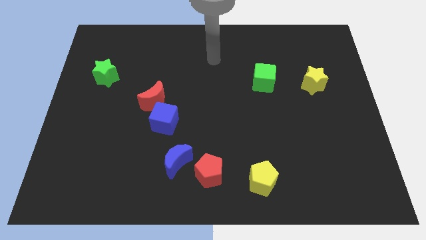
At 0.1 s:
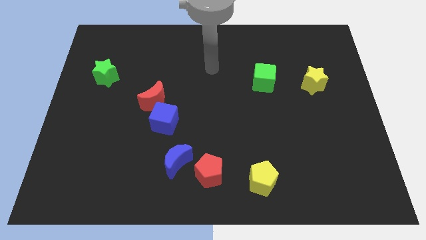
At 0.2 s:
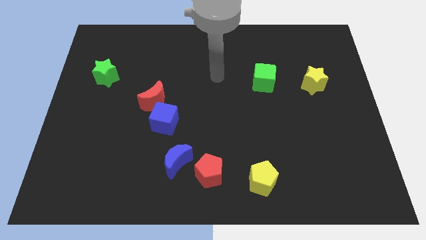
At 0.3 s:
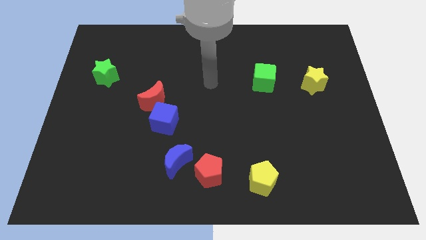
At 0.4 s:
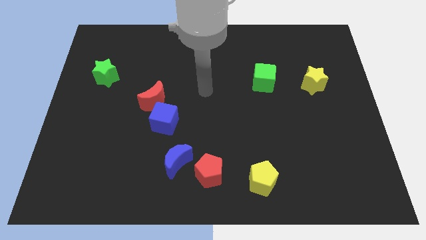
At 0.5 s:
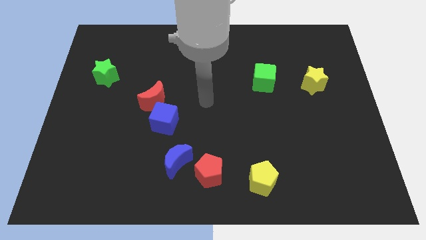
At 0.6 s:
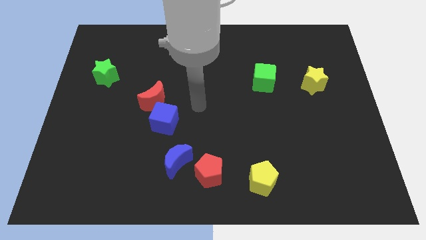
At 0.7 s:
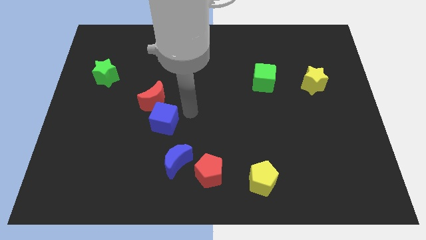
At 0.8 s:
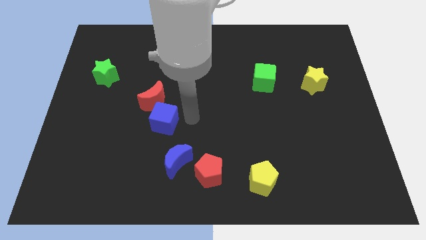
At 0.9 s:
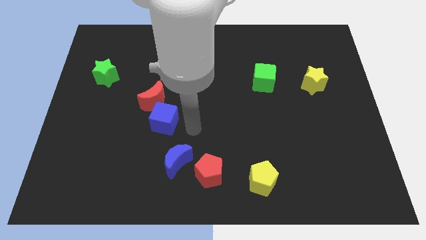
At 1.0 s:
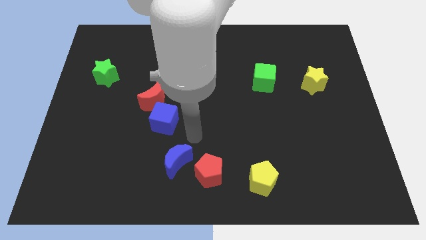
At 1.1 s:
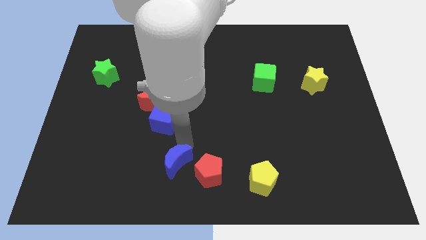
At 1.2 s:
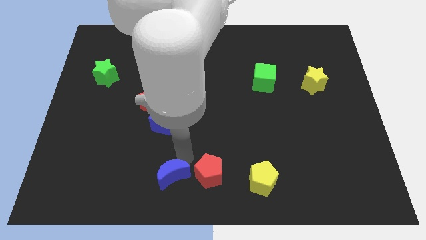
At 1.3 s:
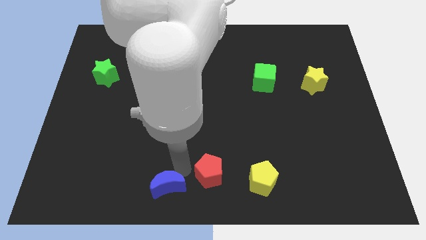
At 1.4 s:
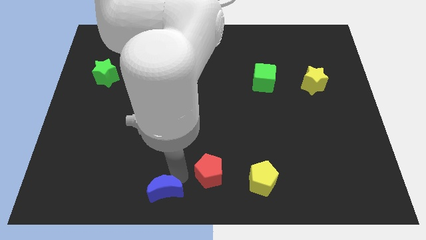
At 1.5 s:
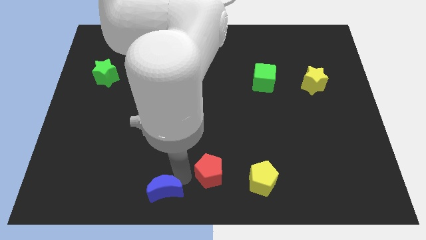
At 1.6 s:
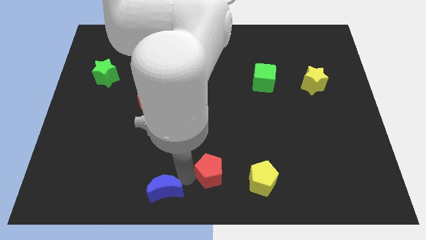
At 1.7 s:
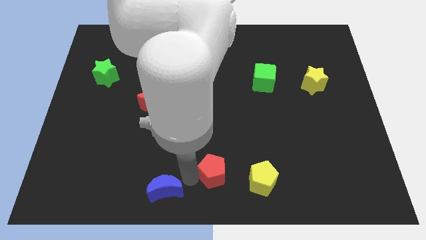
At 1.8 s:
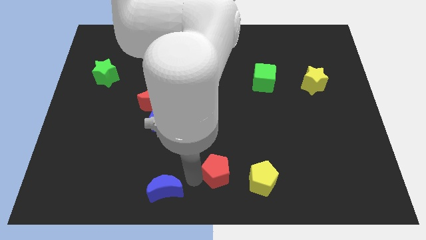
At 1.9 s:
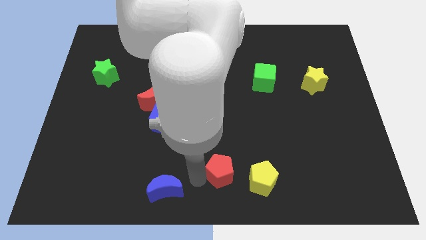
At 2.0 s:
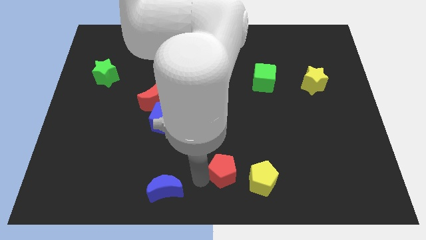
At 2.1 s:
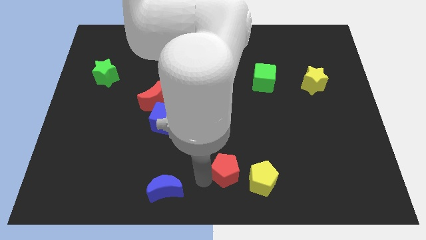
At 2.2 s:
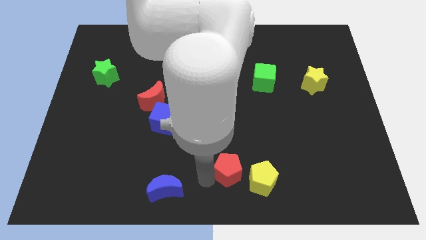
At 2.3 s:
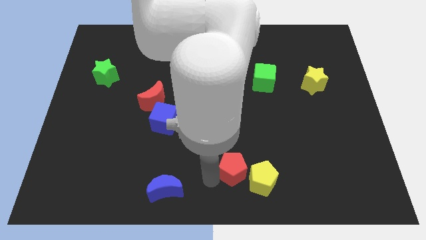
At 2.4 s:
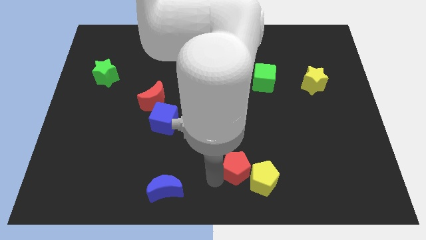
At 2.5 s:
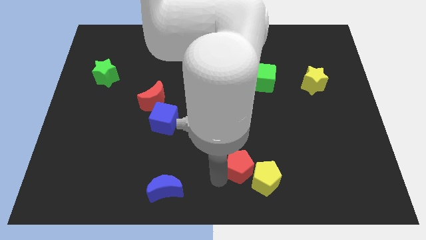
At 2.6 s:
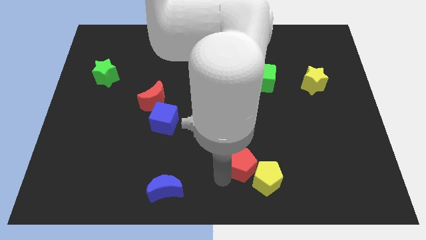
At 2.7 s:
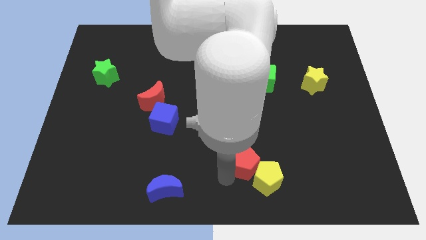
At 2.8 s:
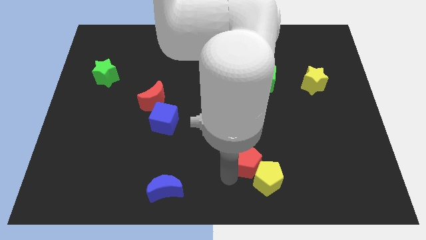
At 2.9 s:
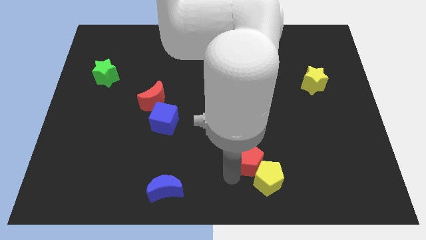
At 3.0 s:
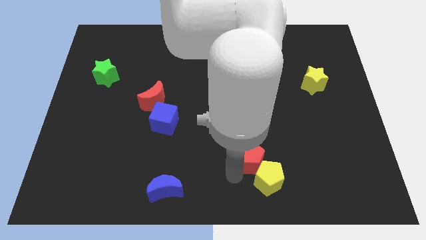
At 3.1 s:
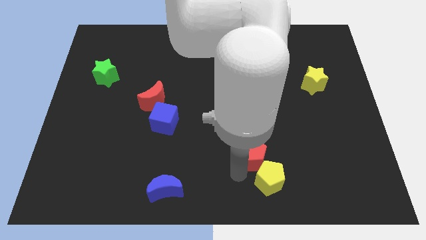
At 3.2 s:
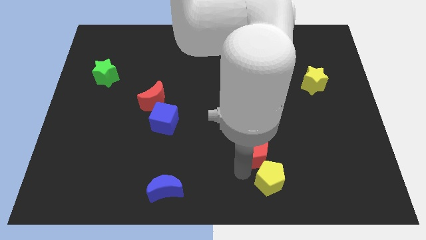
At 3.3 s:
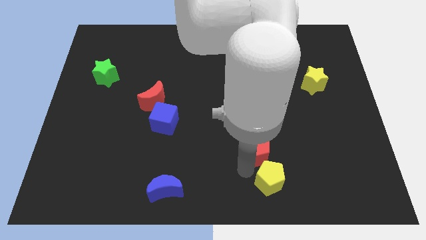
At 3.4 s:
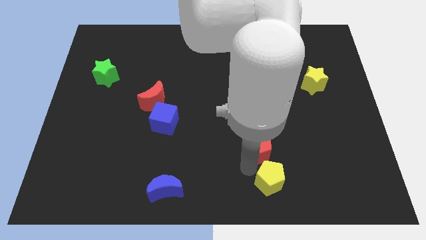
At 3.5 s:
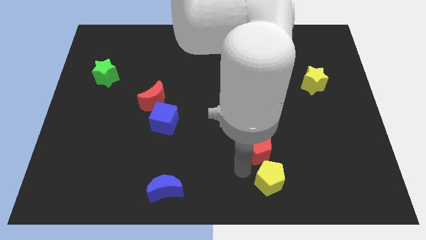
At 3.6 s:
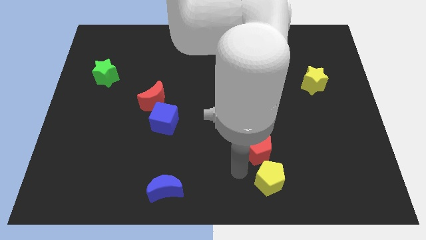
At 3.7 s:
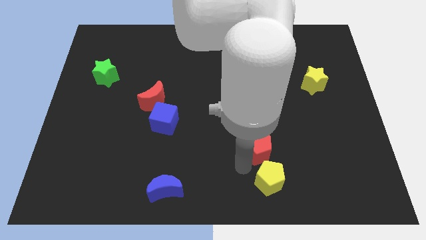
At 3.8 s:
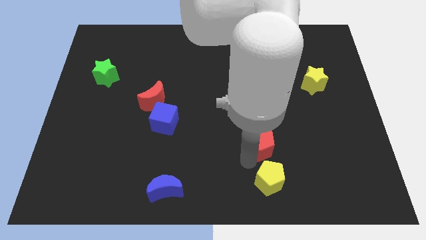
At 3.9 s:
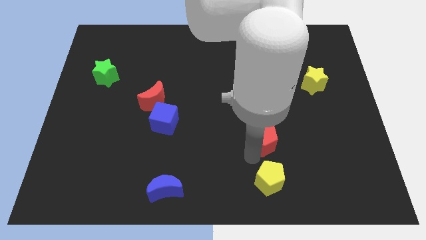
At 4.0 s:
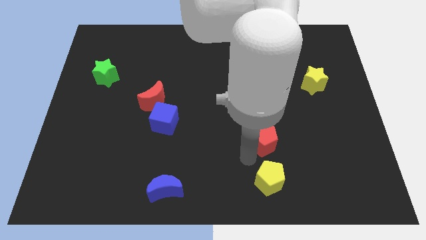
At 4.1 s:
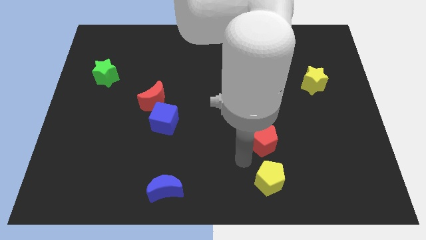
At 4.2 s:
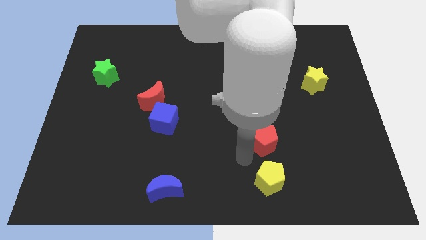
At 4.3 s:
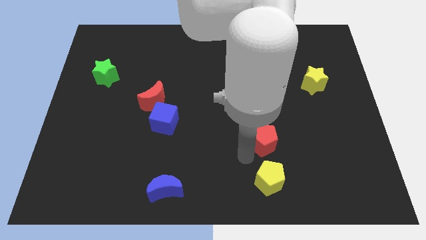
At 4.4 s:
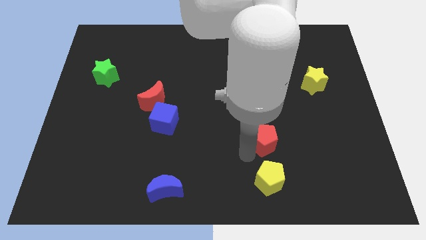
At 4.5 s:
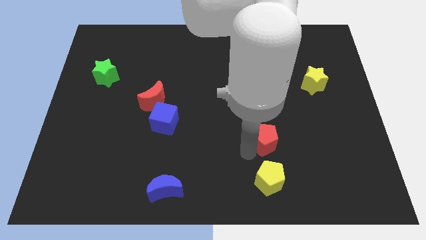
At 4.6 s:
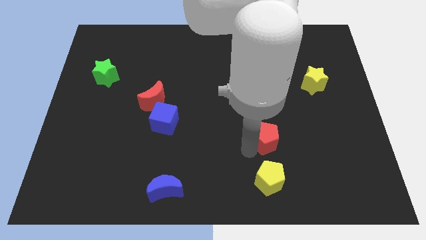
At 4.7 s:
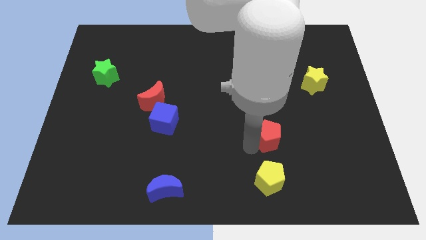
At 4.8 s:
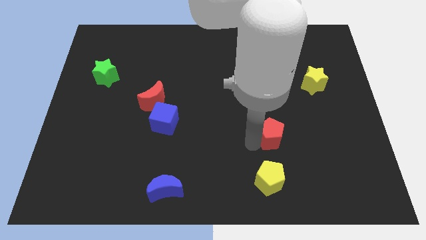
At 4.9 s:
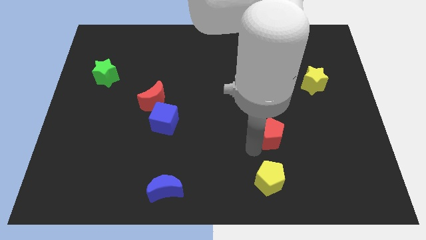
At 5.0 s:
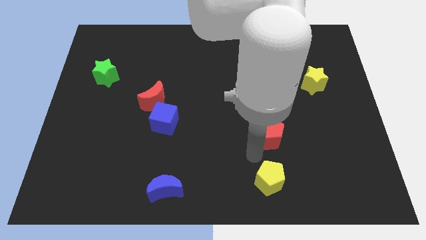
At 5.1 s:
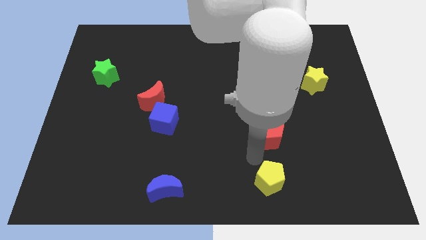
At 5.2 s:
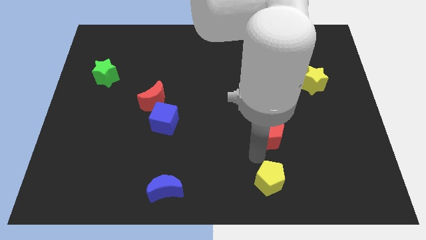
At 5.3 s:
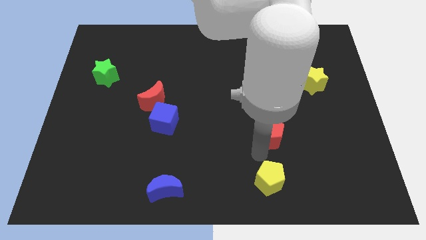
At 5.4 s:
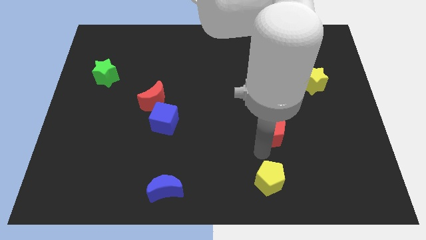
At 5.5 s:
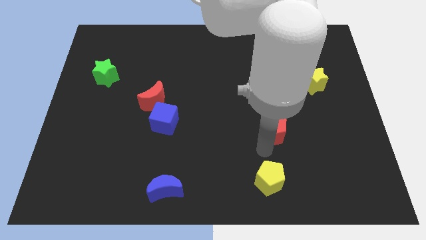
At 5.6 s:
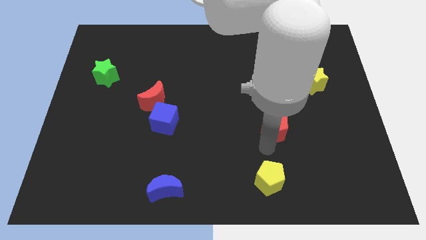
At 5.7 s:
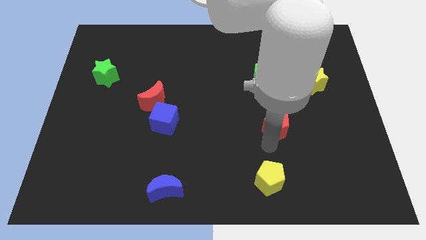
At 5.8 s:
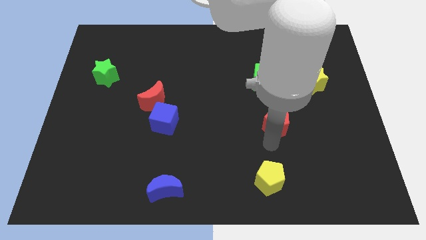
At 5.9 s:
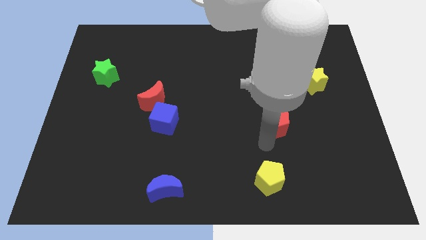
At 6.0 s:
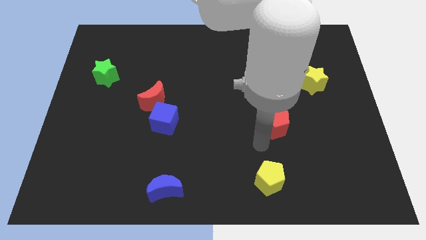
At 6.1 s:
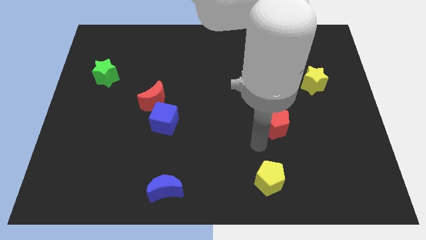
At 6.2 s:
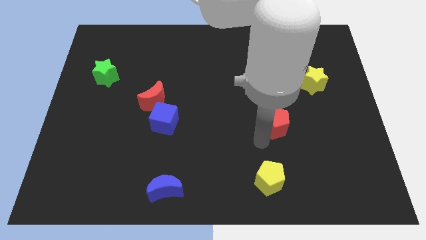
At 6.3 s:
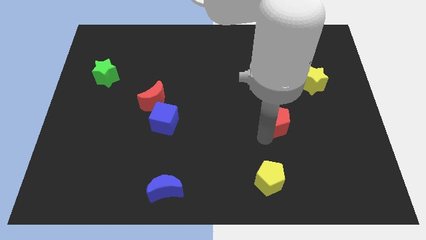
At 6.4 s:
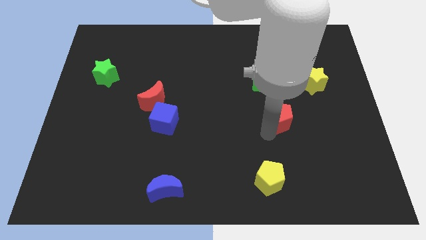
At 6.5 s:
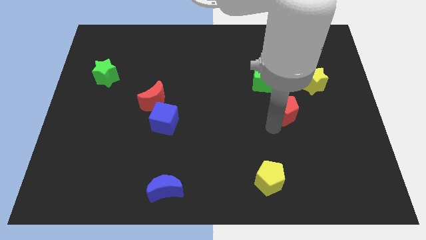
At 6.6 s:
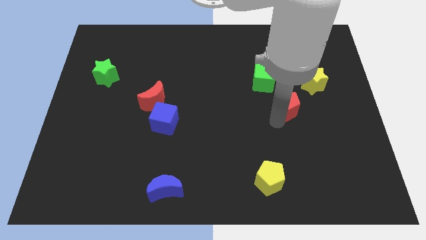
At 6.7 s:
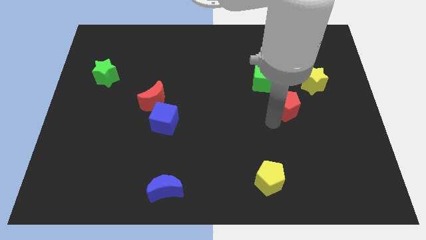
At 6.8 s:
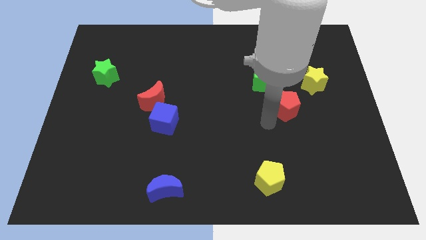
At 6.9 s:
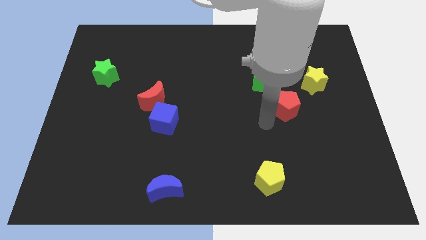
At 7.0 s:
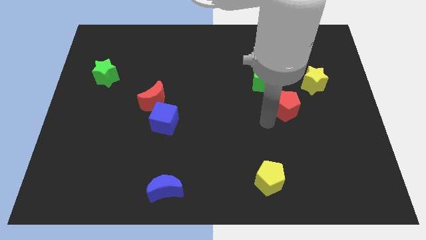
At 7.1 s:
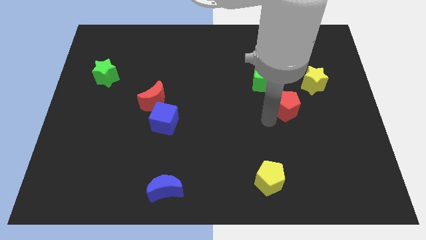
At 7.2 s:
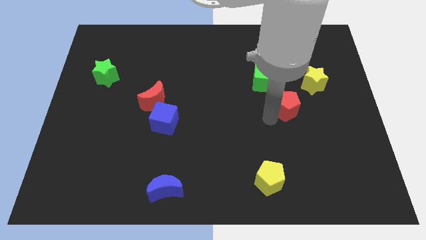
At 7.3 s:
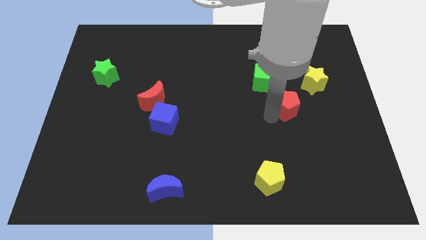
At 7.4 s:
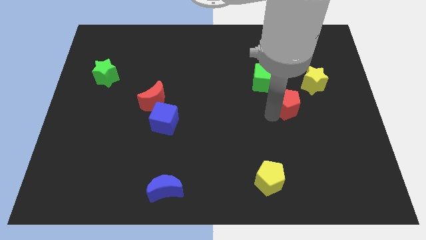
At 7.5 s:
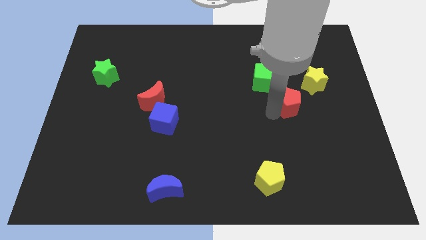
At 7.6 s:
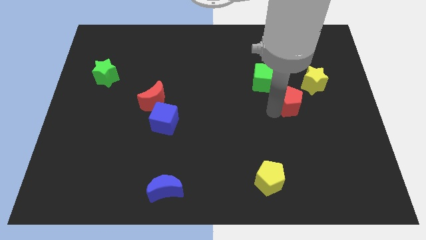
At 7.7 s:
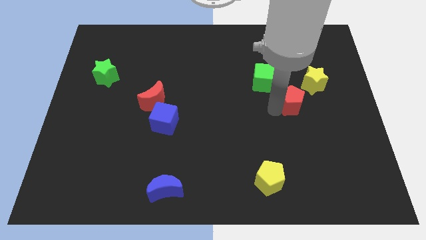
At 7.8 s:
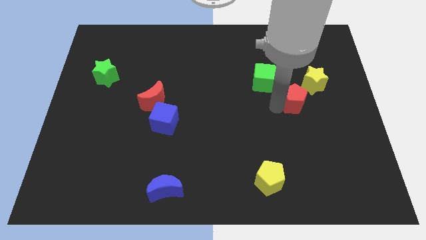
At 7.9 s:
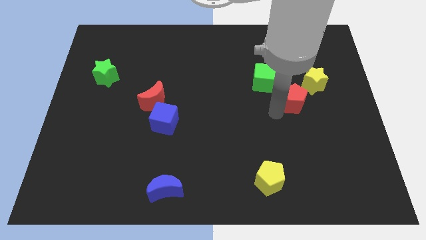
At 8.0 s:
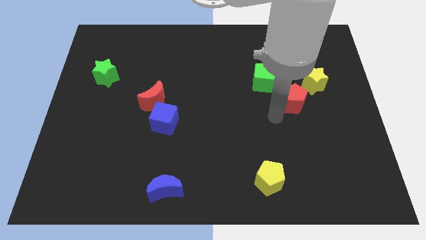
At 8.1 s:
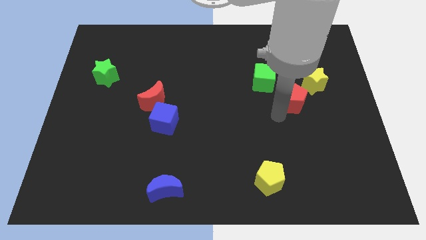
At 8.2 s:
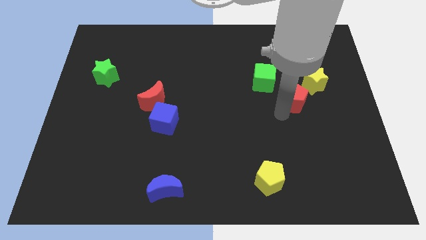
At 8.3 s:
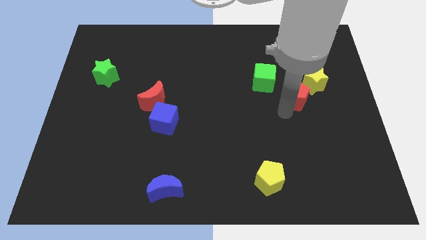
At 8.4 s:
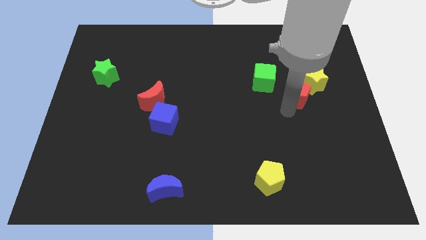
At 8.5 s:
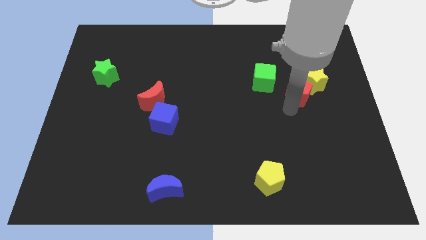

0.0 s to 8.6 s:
move the red pentagon close to the yellow star
